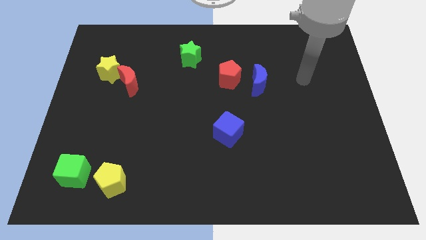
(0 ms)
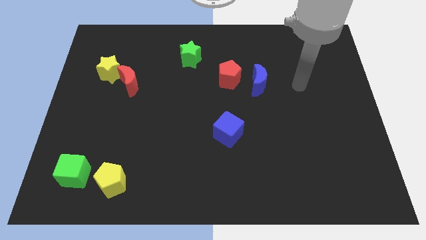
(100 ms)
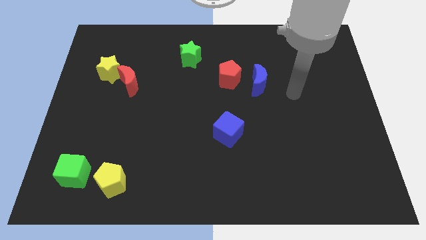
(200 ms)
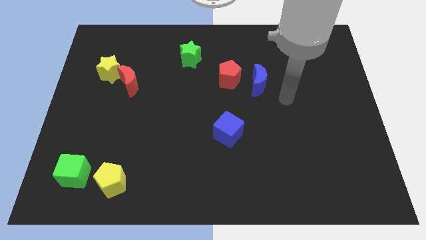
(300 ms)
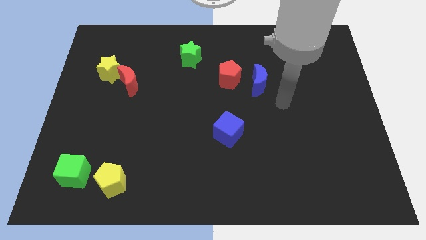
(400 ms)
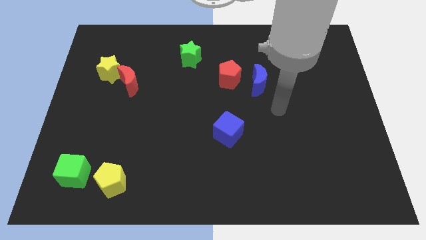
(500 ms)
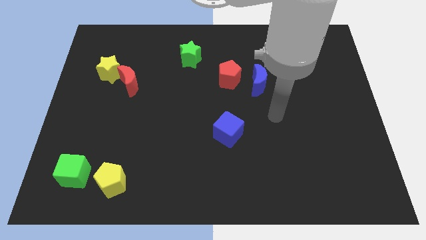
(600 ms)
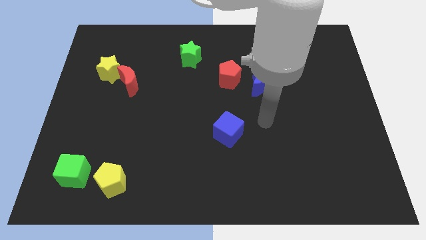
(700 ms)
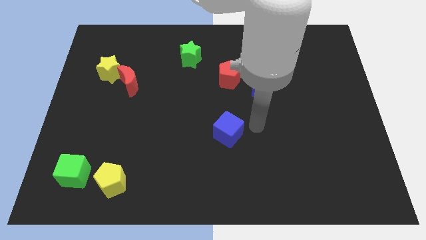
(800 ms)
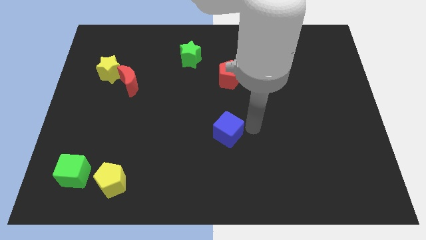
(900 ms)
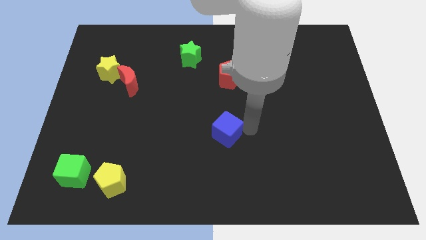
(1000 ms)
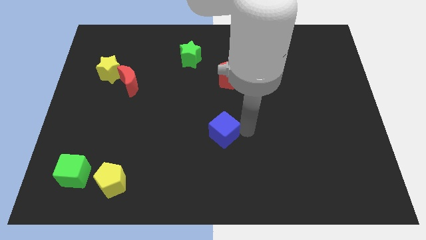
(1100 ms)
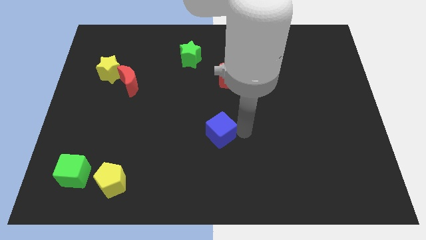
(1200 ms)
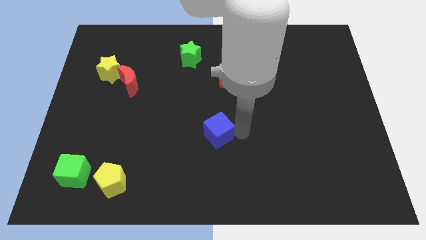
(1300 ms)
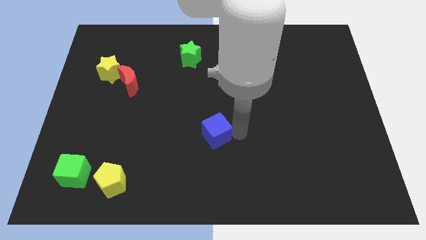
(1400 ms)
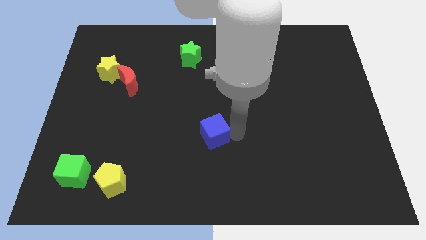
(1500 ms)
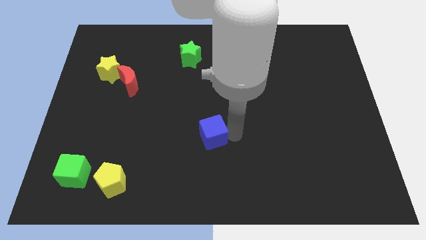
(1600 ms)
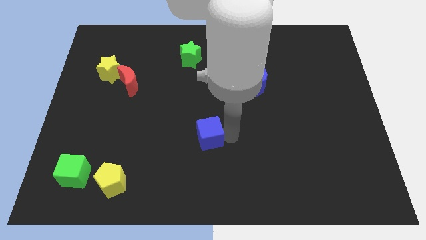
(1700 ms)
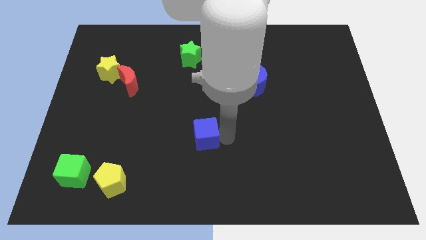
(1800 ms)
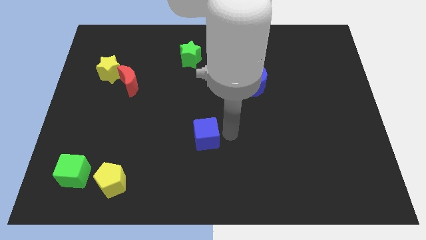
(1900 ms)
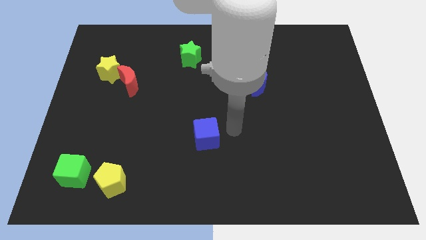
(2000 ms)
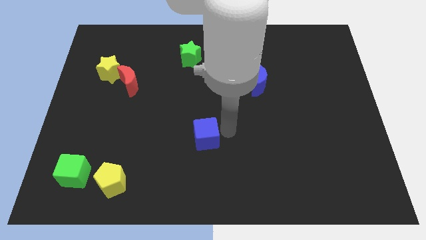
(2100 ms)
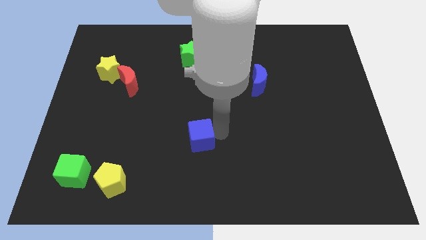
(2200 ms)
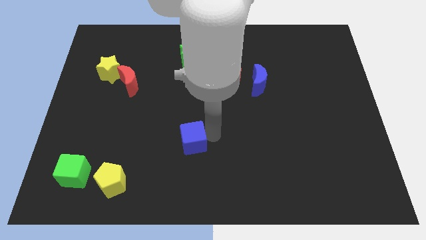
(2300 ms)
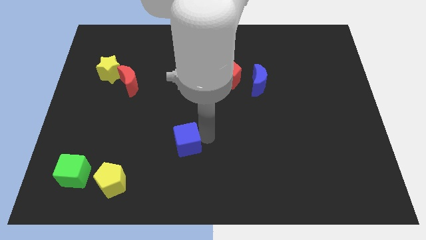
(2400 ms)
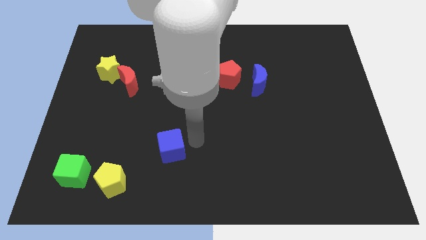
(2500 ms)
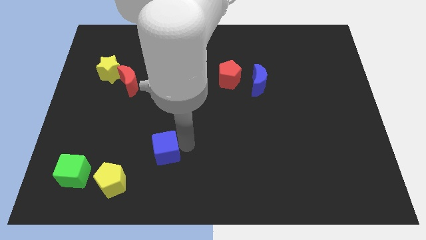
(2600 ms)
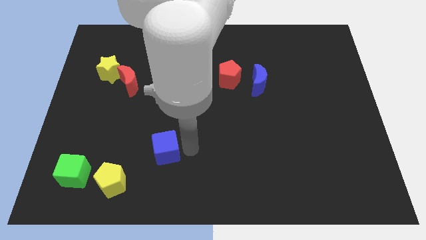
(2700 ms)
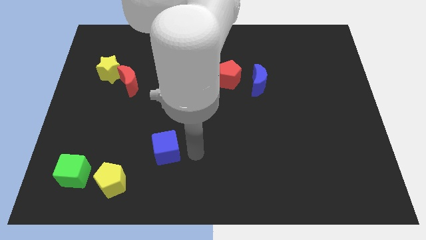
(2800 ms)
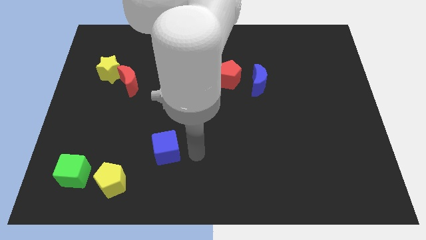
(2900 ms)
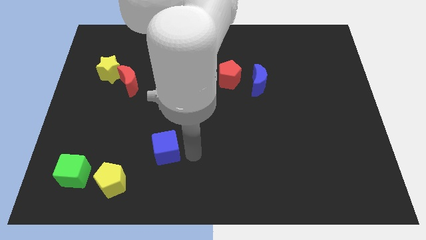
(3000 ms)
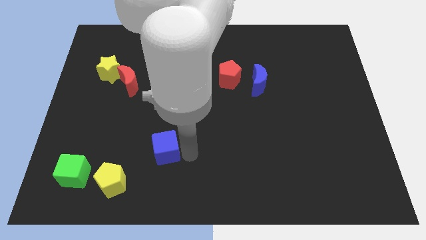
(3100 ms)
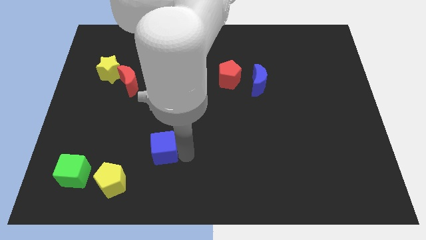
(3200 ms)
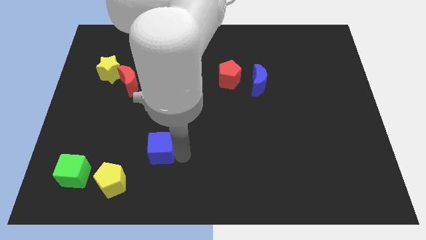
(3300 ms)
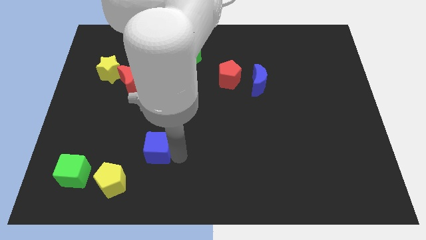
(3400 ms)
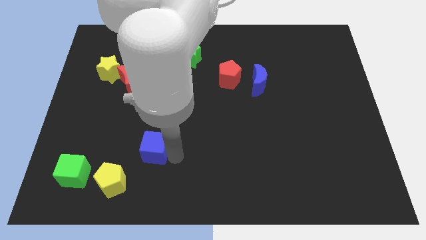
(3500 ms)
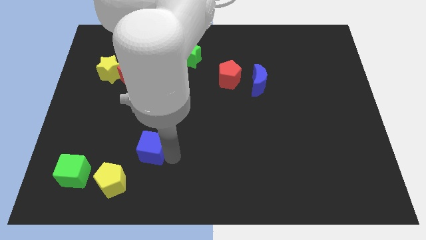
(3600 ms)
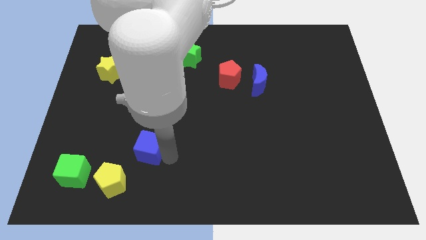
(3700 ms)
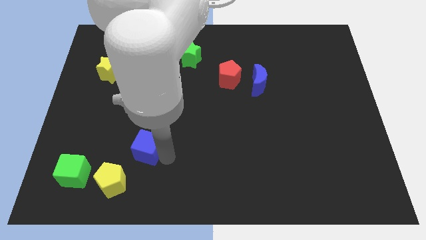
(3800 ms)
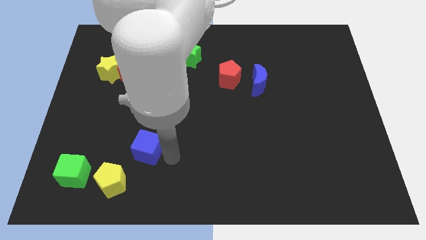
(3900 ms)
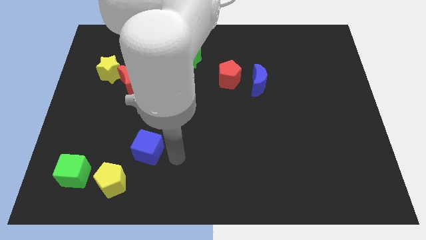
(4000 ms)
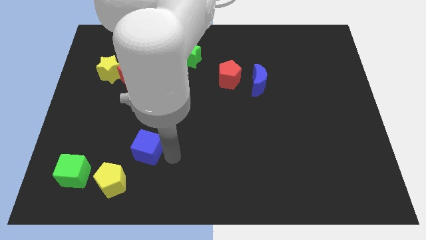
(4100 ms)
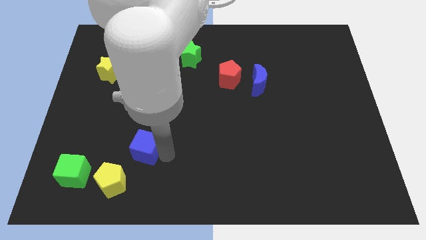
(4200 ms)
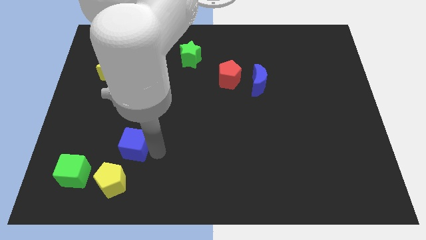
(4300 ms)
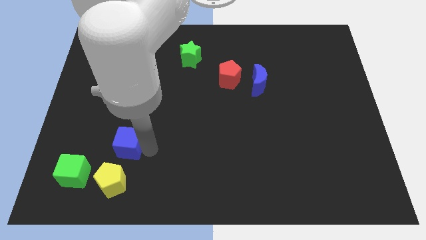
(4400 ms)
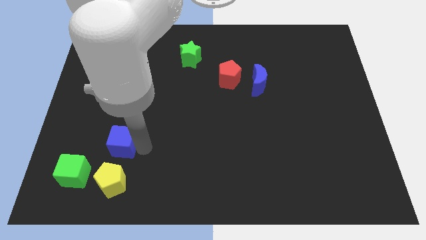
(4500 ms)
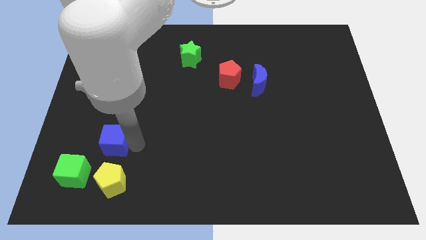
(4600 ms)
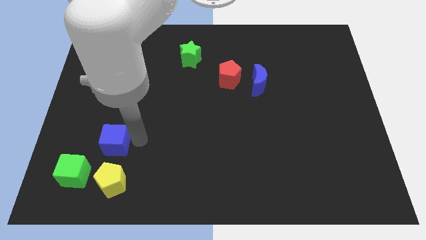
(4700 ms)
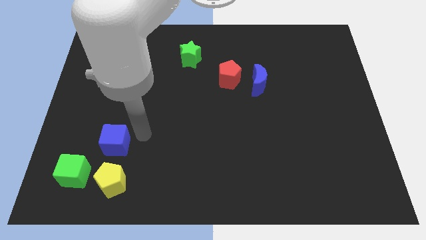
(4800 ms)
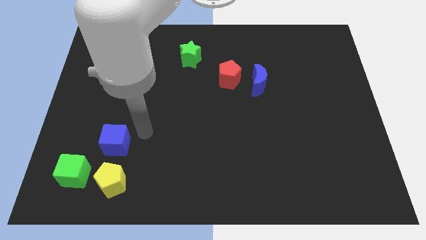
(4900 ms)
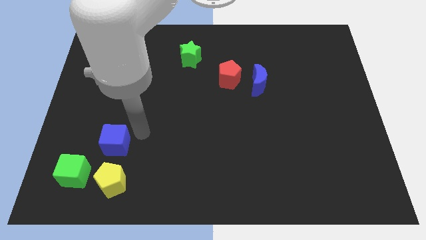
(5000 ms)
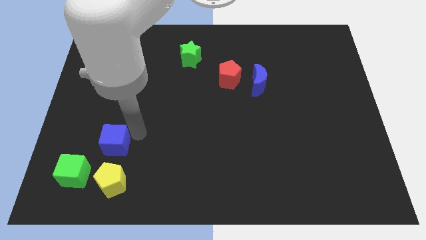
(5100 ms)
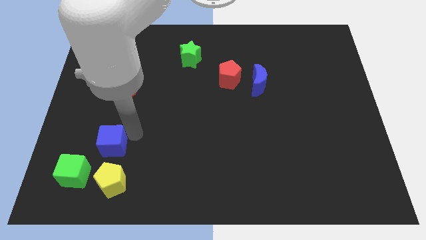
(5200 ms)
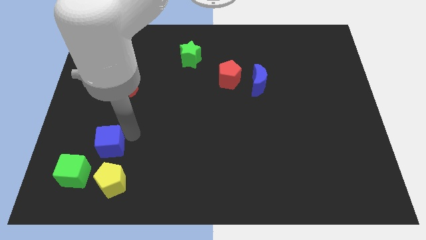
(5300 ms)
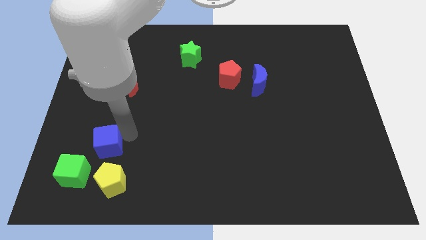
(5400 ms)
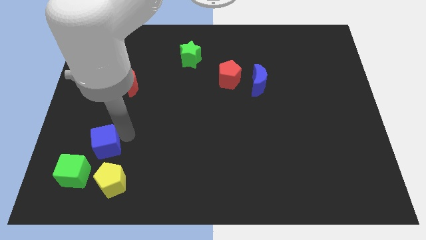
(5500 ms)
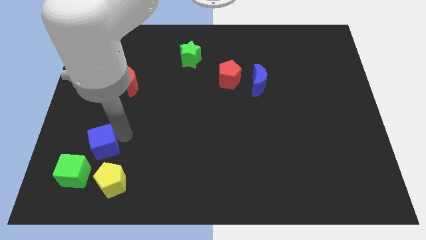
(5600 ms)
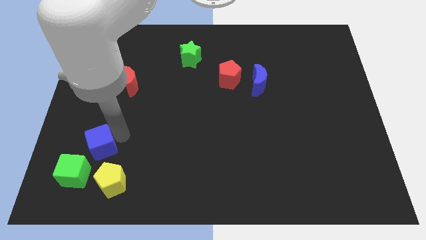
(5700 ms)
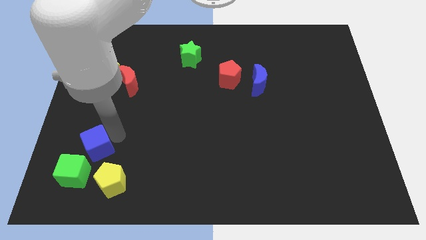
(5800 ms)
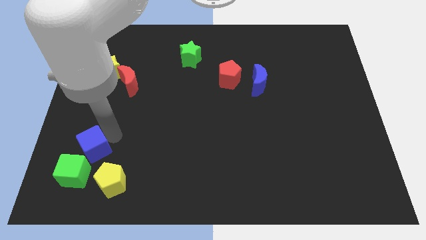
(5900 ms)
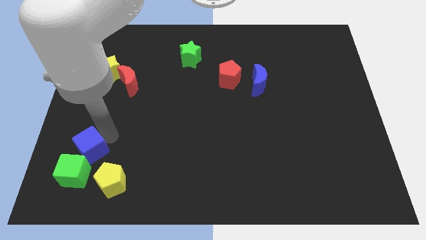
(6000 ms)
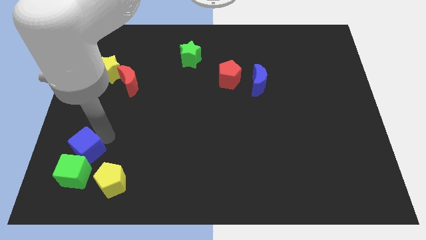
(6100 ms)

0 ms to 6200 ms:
push the blue cube towards the green cube

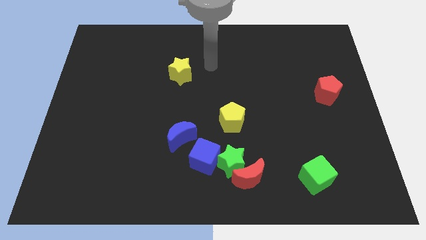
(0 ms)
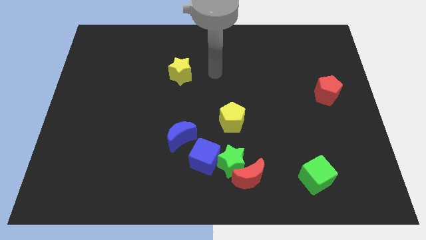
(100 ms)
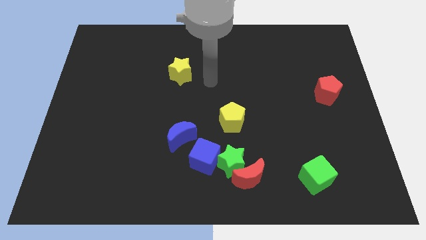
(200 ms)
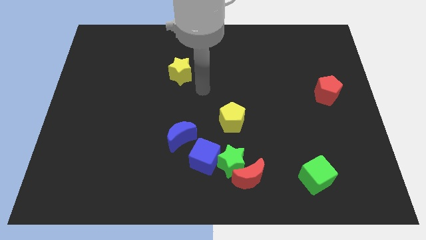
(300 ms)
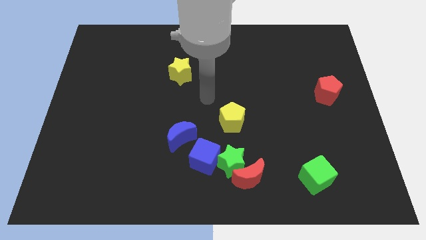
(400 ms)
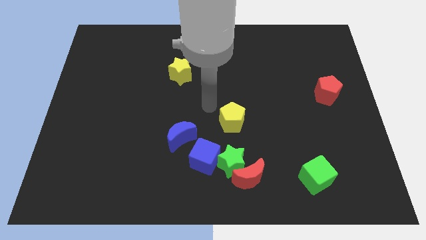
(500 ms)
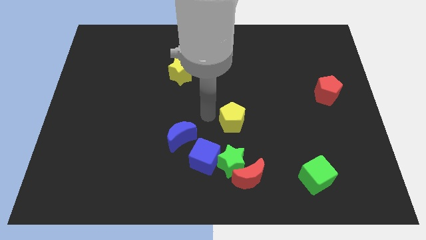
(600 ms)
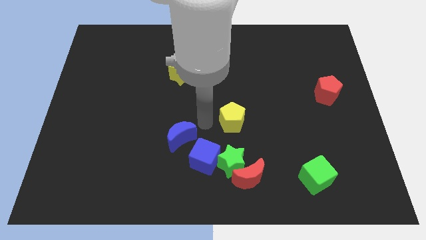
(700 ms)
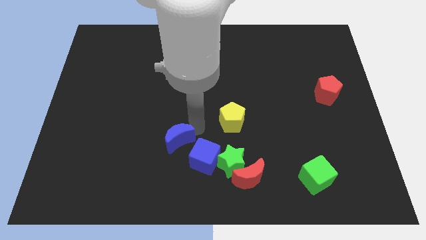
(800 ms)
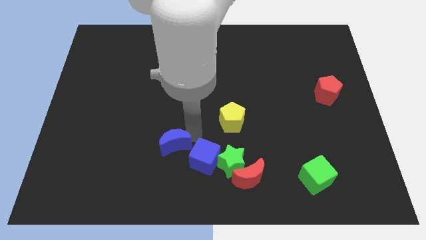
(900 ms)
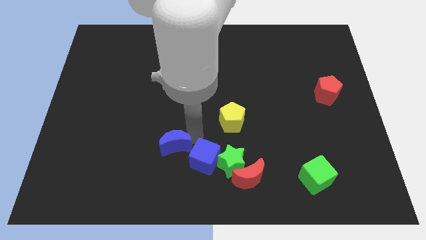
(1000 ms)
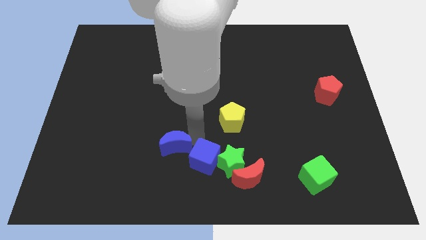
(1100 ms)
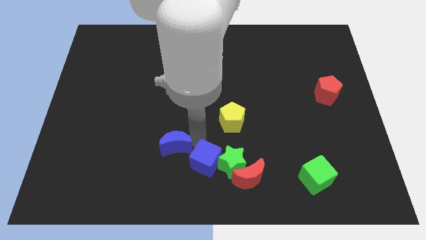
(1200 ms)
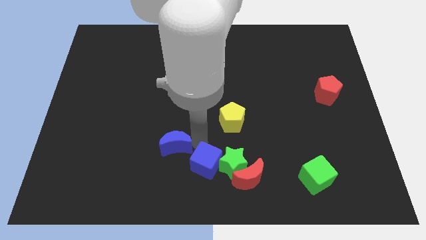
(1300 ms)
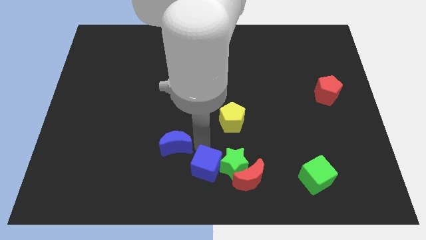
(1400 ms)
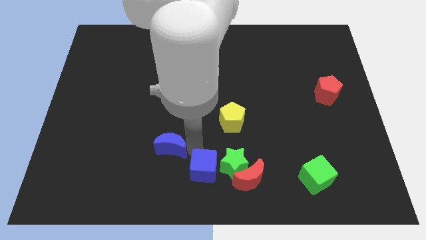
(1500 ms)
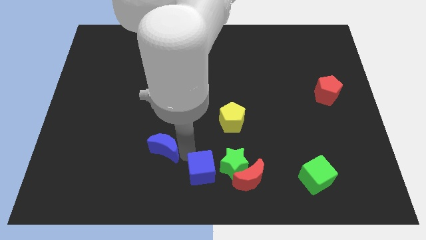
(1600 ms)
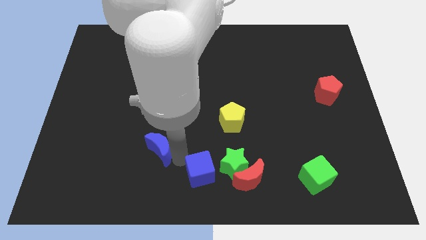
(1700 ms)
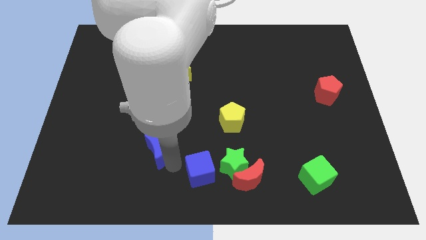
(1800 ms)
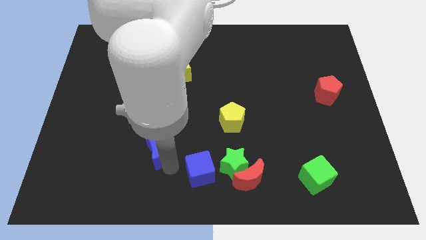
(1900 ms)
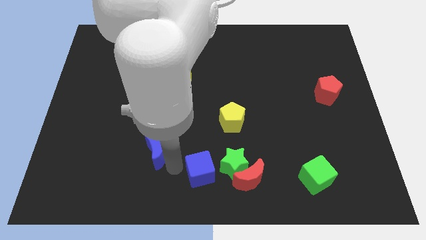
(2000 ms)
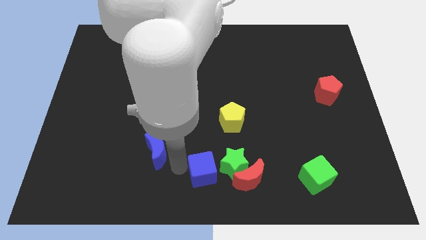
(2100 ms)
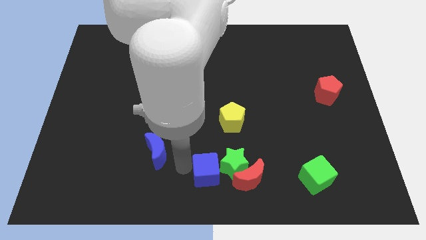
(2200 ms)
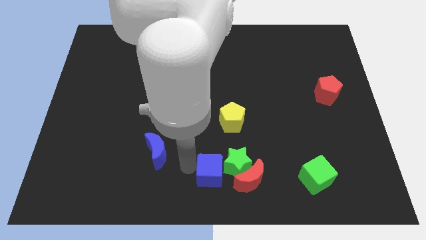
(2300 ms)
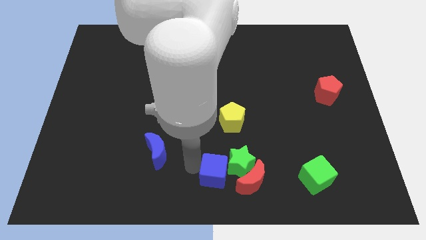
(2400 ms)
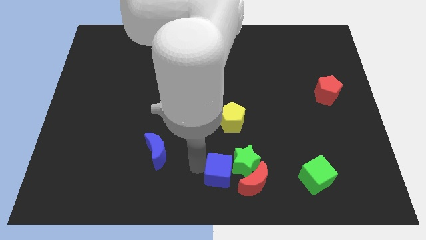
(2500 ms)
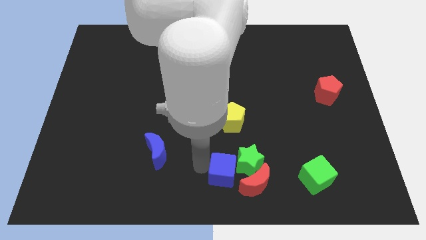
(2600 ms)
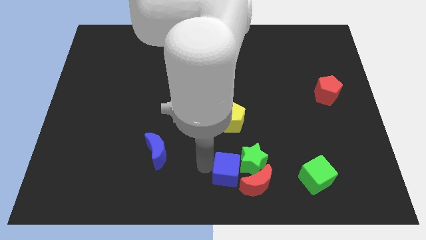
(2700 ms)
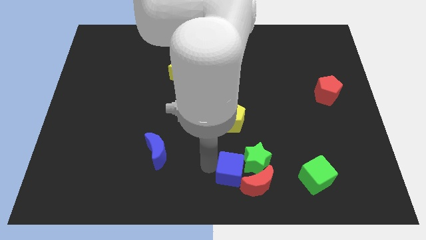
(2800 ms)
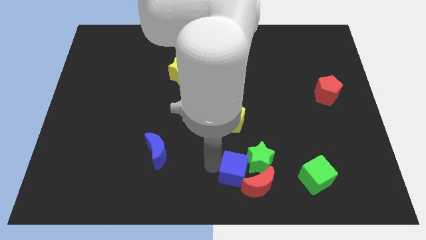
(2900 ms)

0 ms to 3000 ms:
push the blue cube close to the red moon
